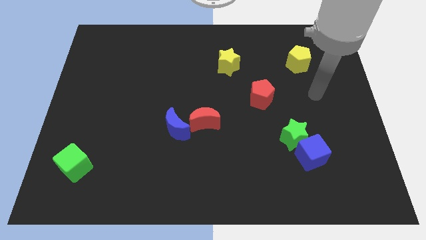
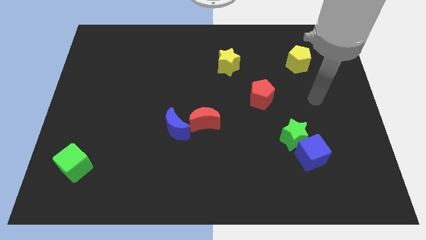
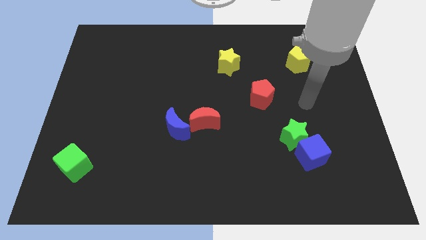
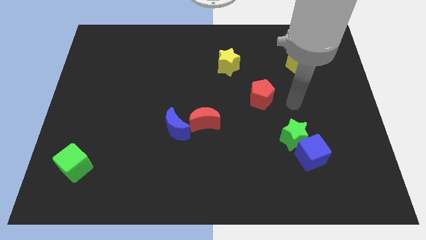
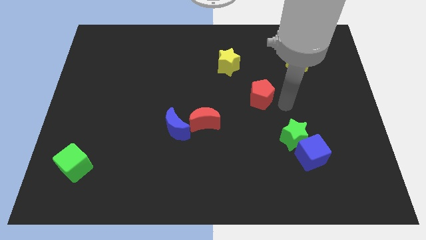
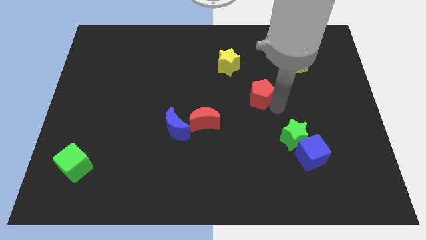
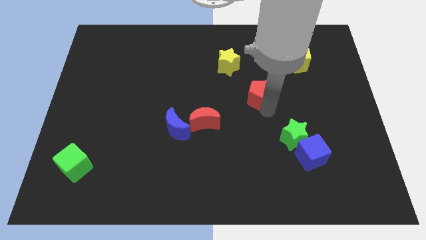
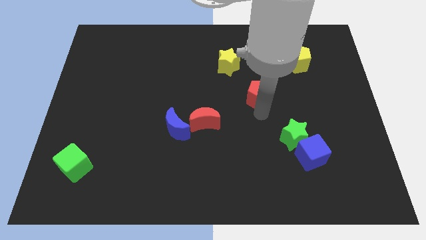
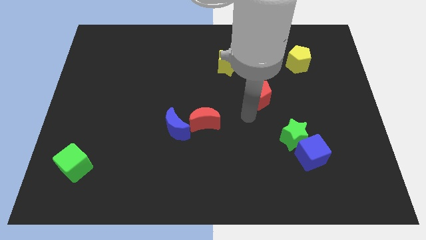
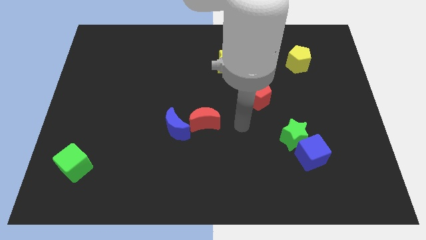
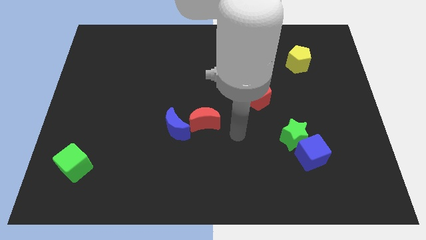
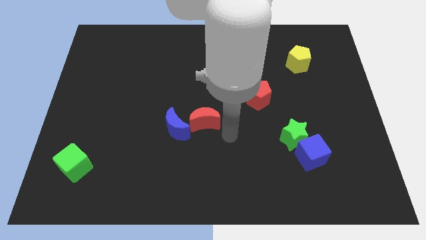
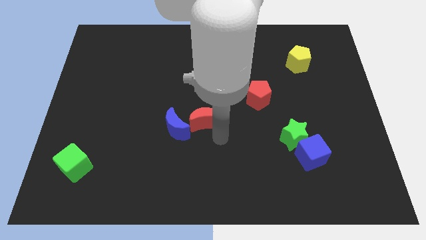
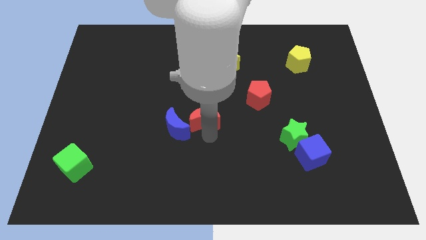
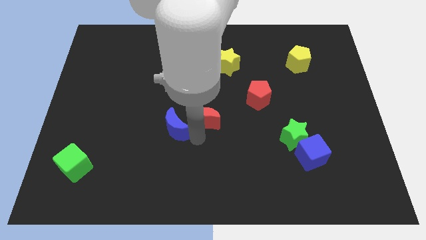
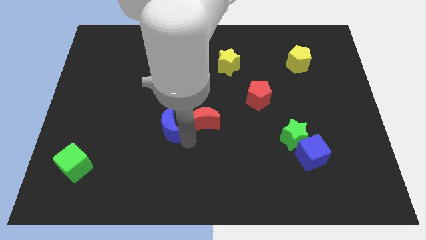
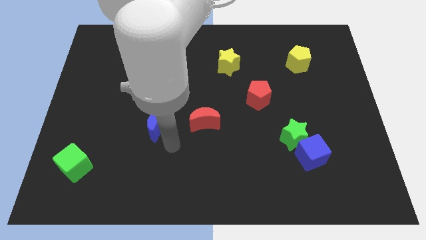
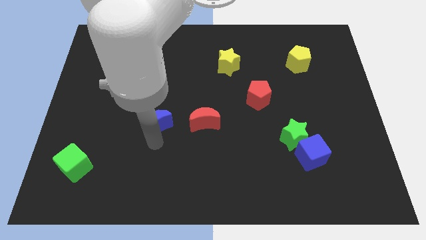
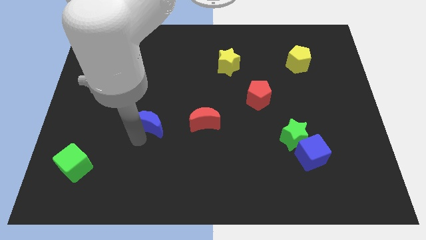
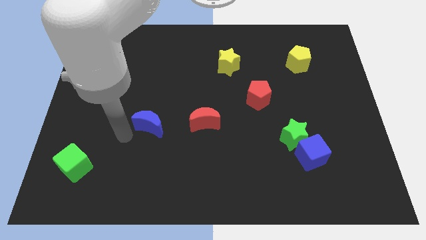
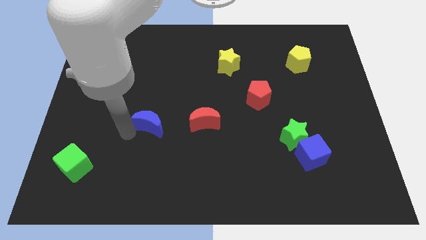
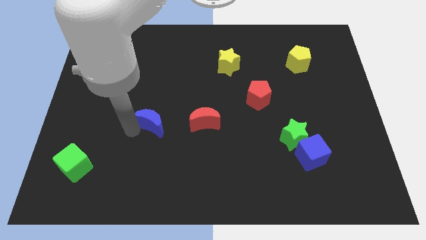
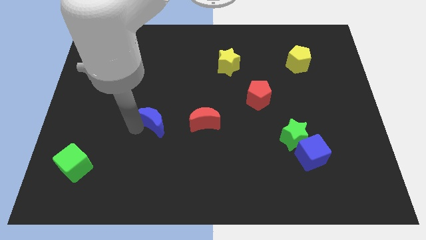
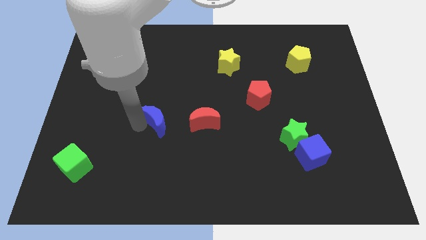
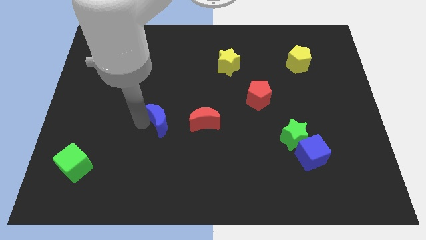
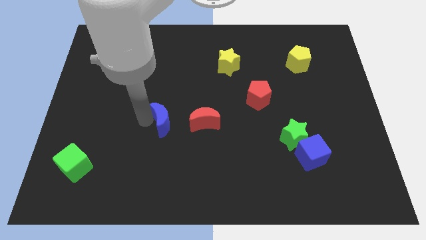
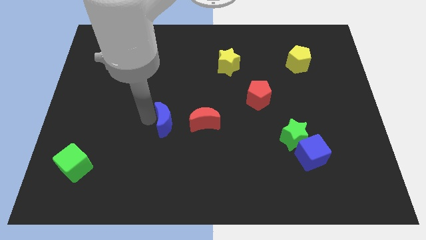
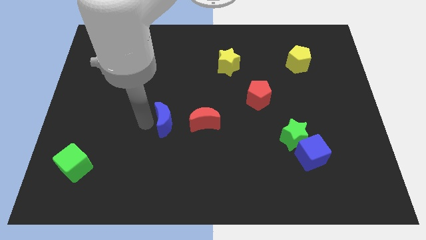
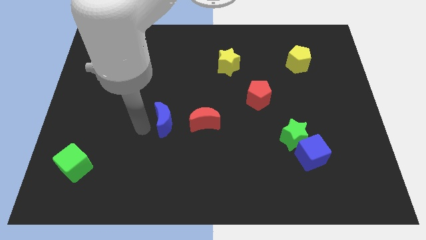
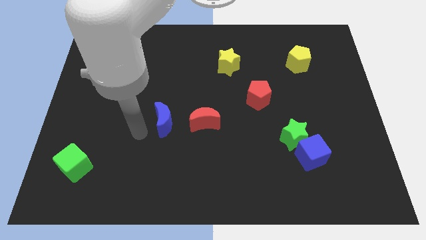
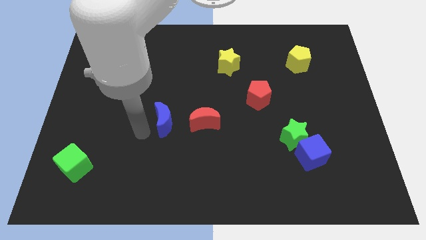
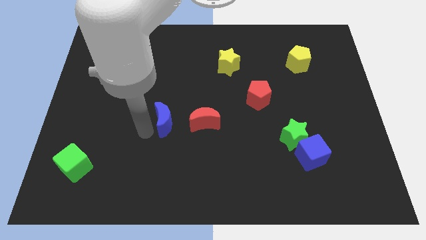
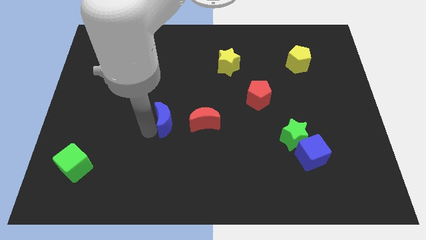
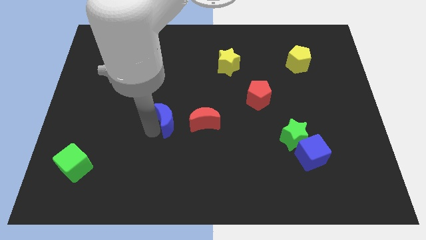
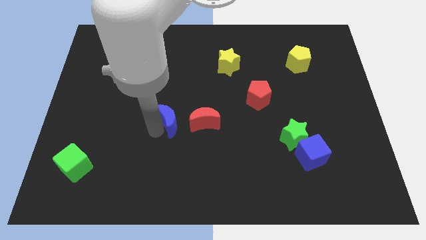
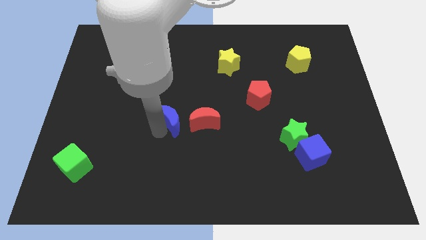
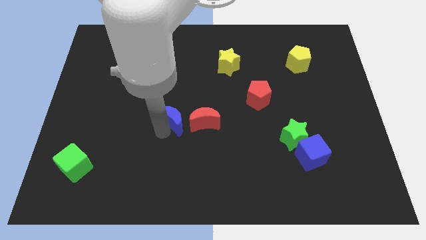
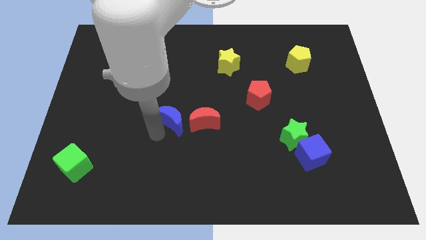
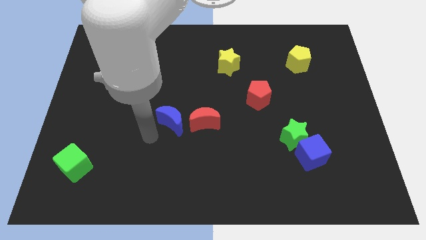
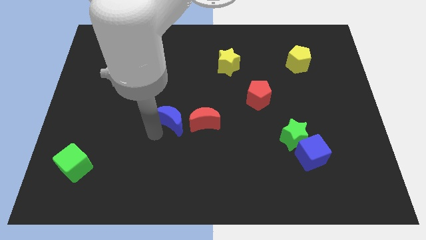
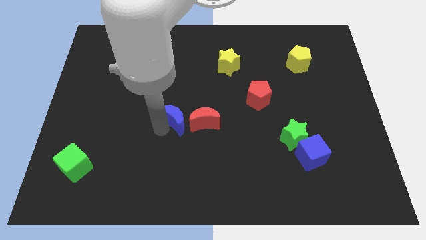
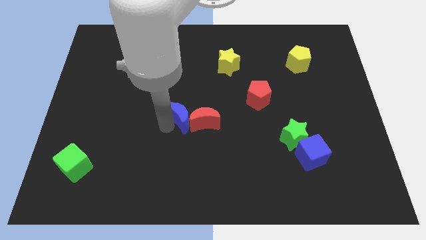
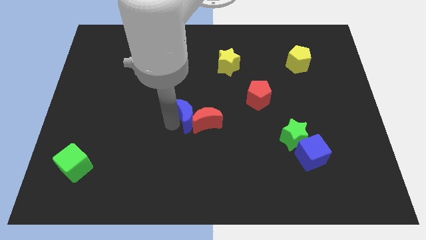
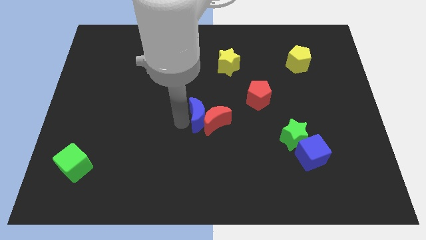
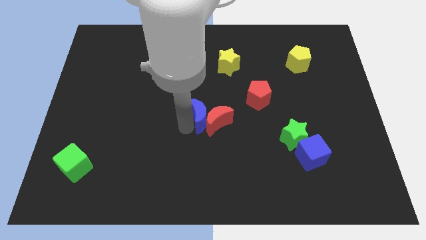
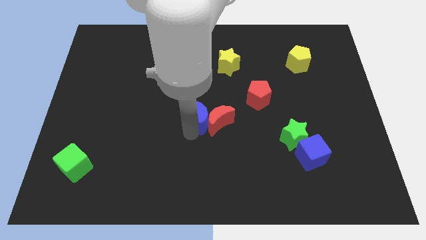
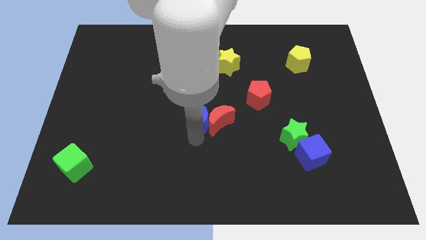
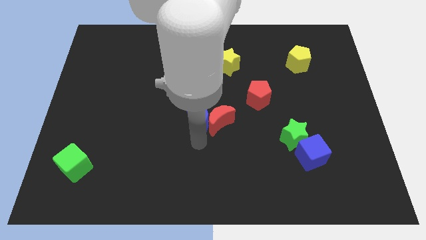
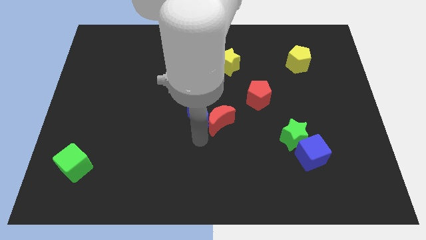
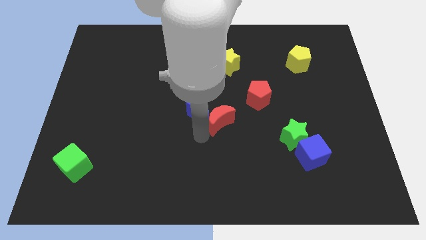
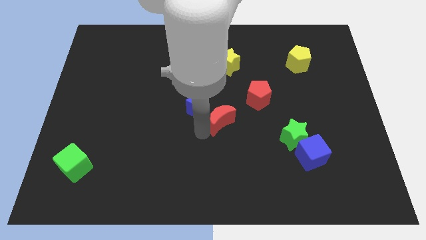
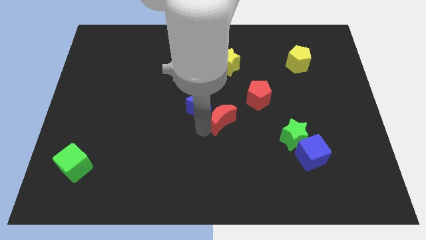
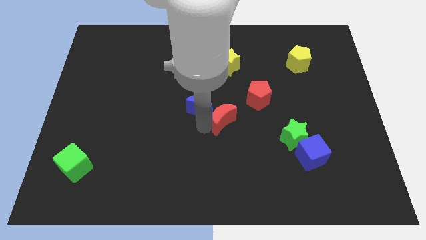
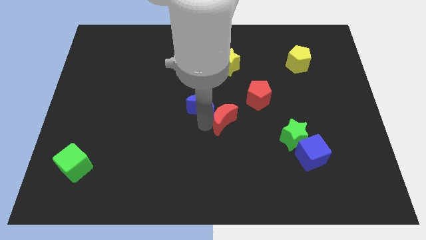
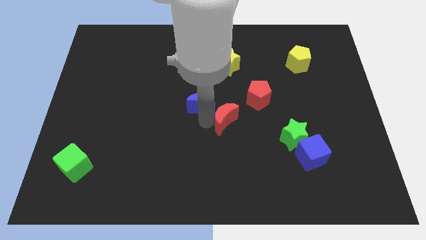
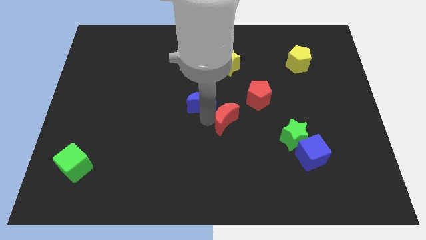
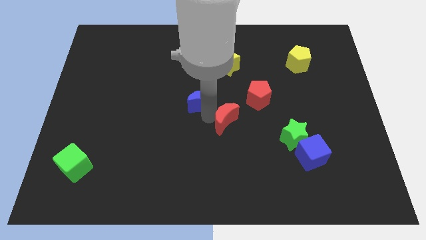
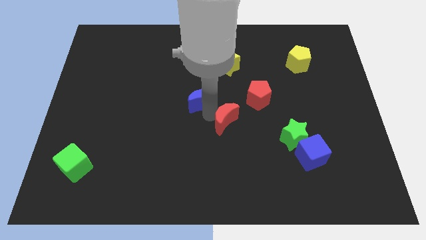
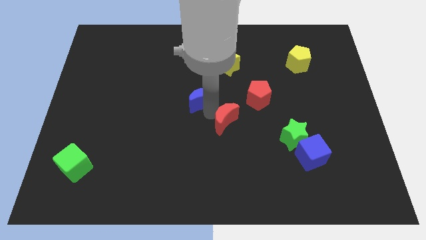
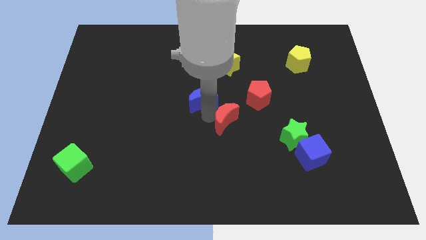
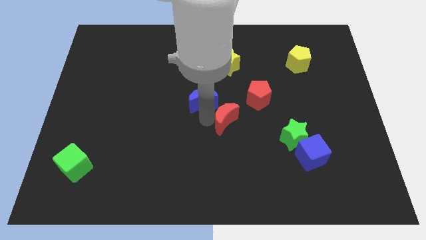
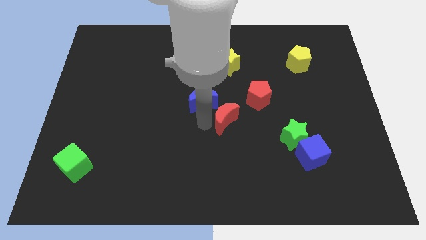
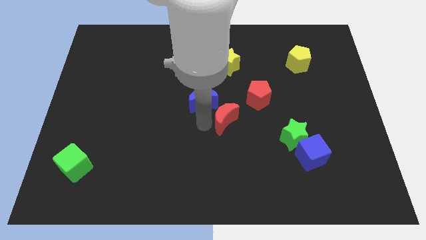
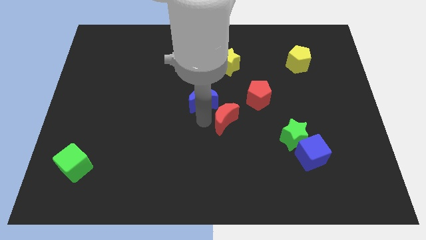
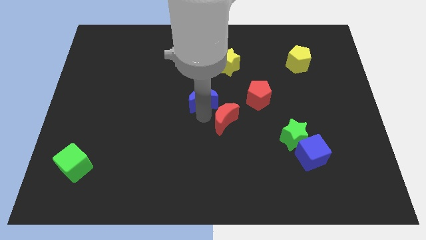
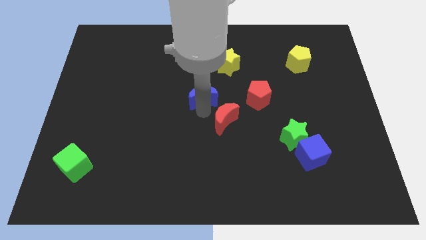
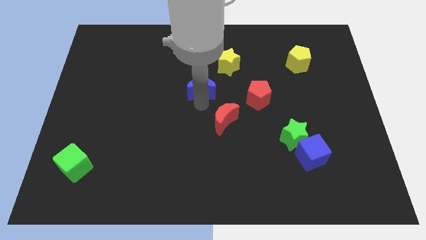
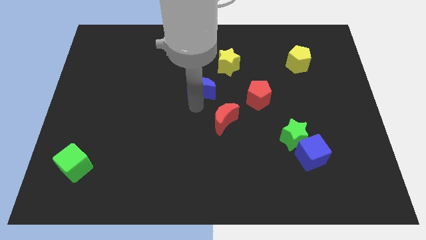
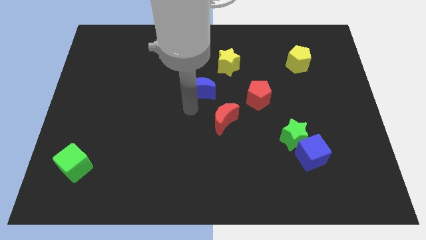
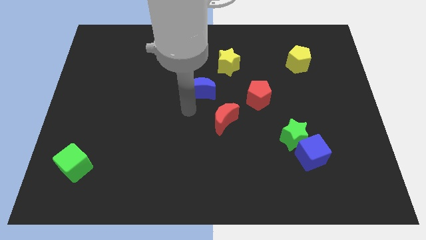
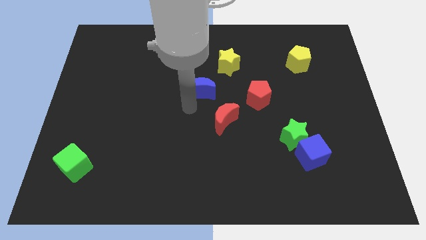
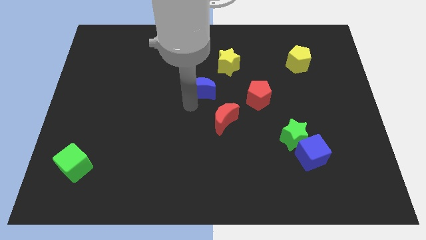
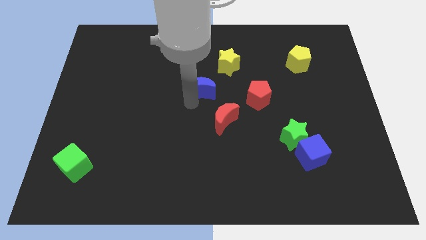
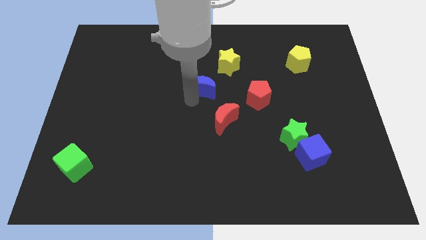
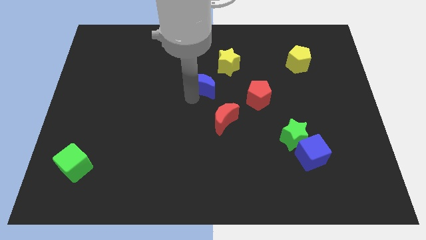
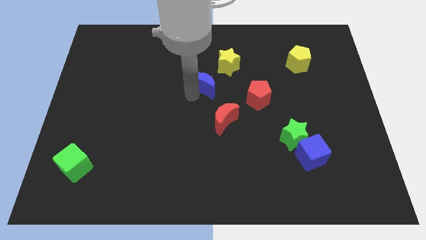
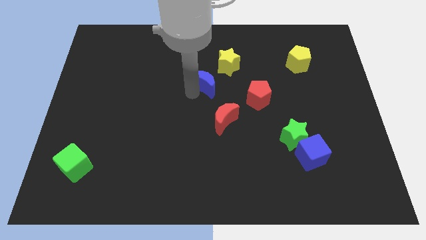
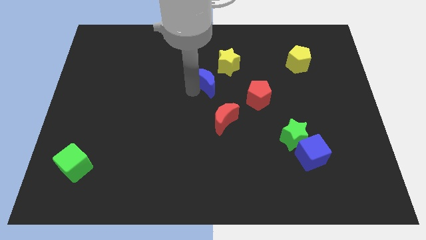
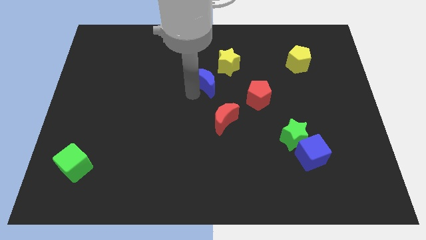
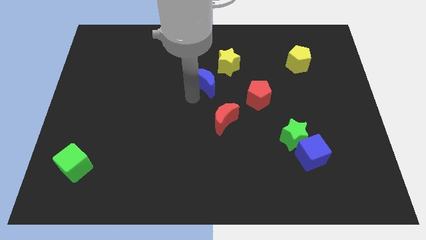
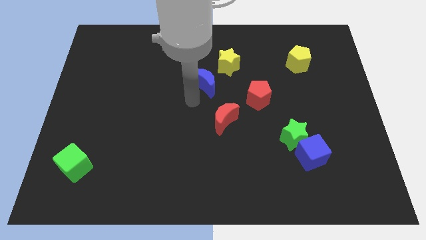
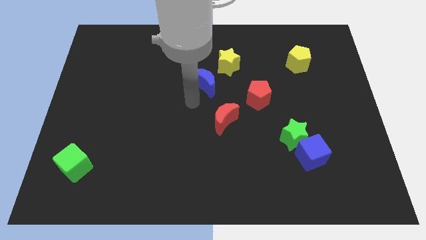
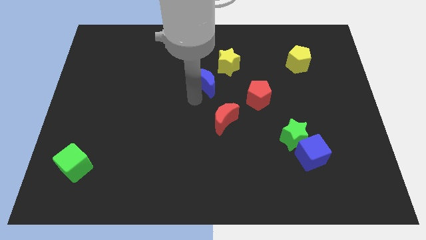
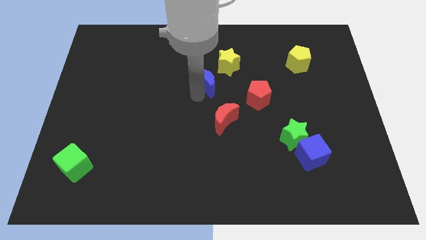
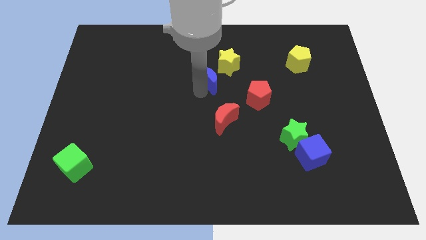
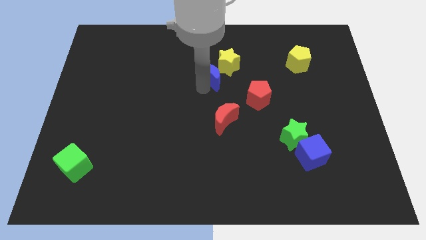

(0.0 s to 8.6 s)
move the blue moon towards the yellow star
